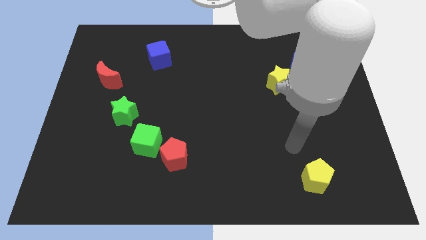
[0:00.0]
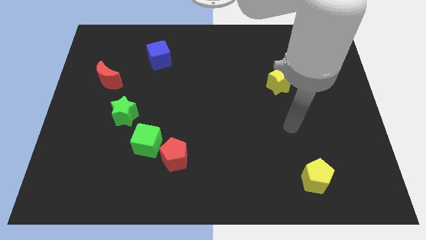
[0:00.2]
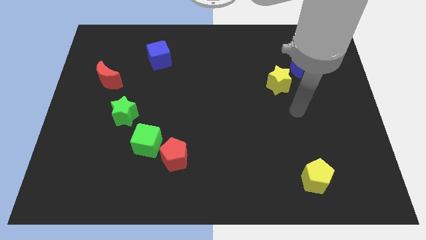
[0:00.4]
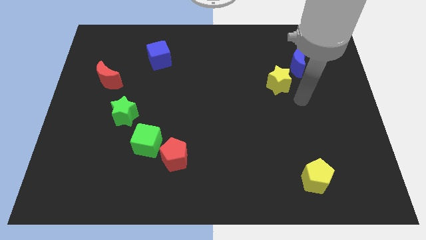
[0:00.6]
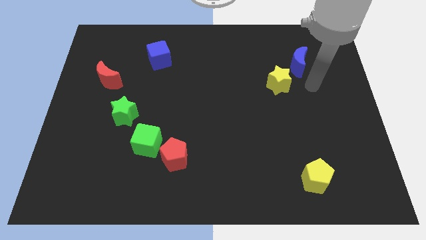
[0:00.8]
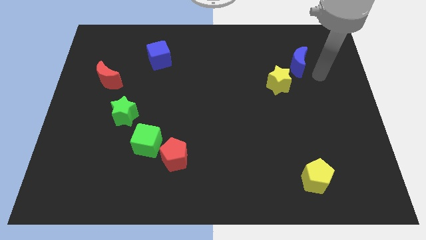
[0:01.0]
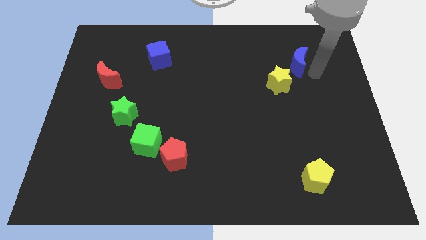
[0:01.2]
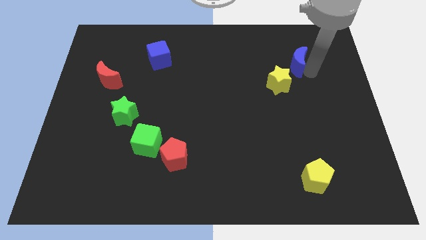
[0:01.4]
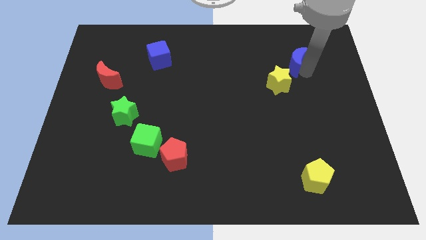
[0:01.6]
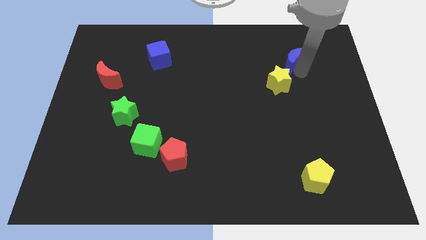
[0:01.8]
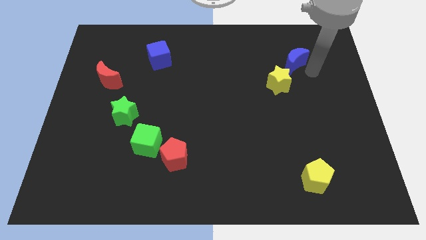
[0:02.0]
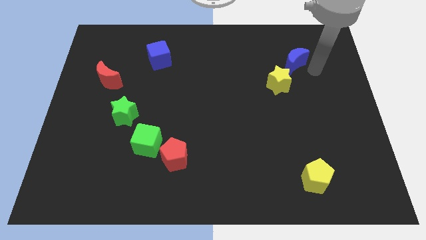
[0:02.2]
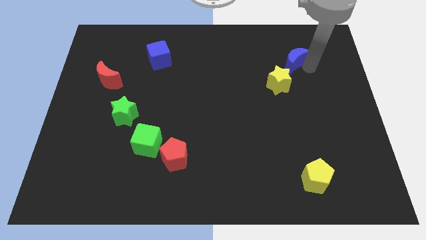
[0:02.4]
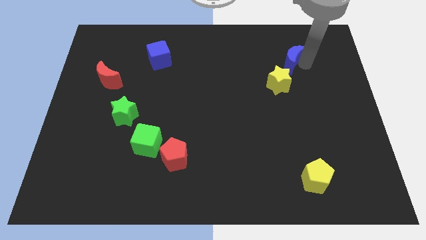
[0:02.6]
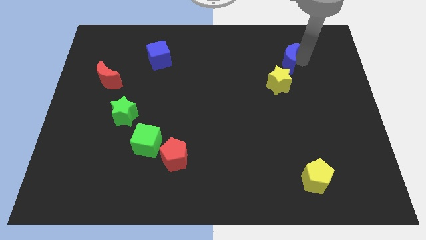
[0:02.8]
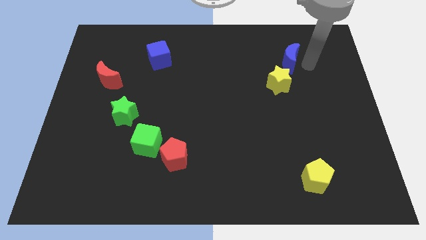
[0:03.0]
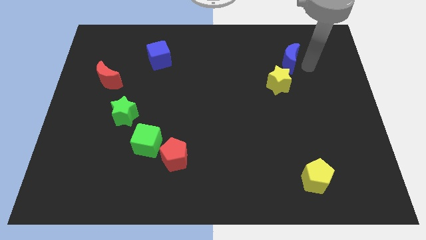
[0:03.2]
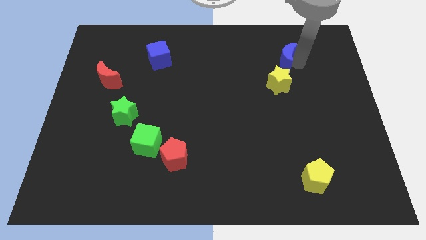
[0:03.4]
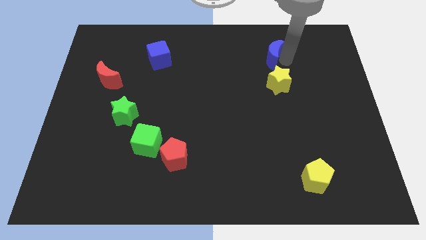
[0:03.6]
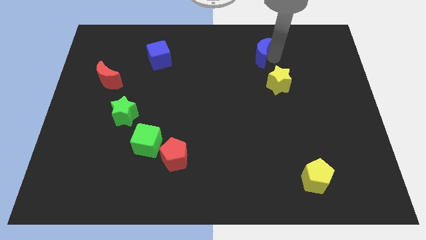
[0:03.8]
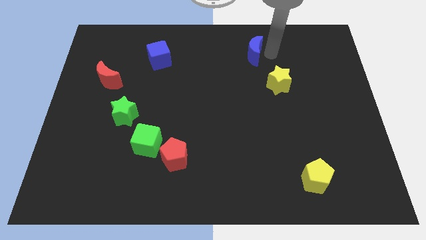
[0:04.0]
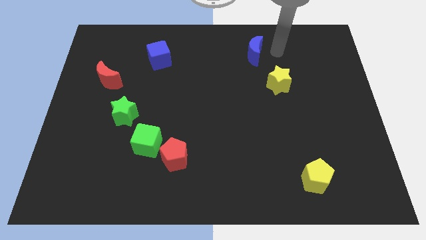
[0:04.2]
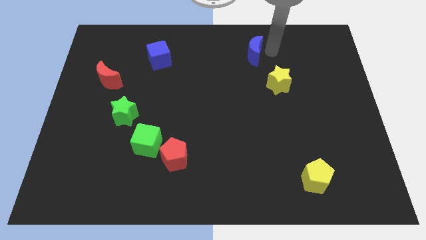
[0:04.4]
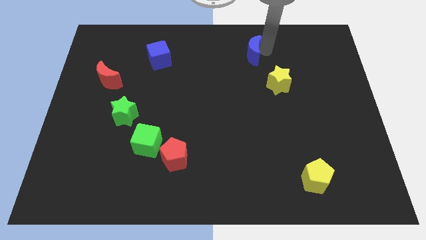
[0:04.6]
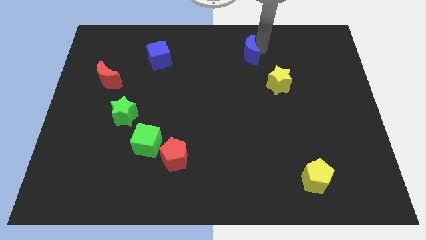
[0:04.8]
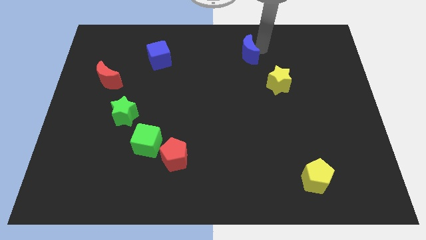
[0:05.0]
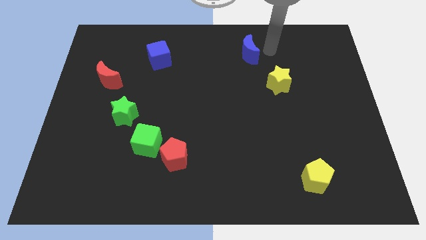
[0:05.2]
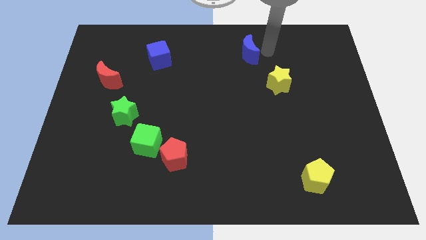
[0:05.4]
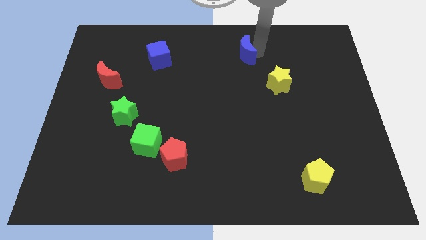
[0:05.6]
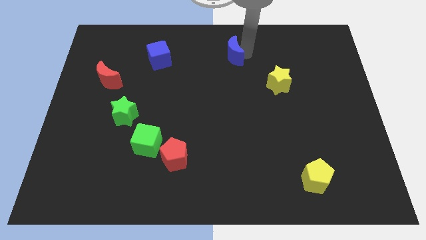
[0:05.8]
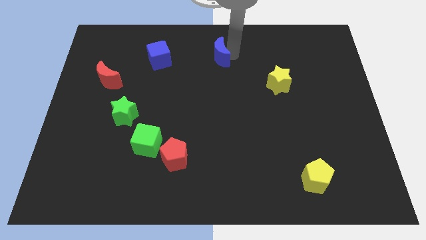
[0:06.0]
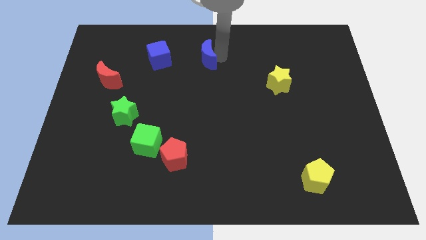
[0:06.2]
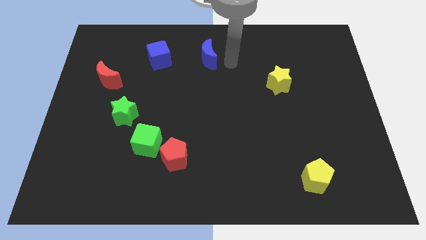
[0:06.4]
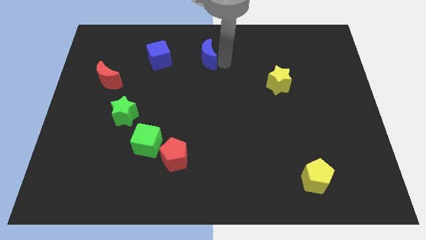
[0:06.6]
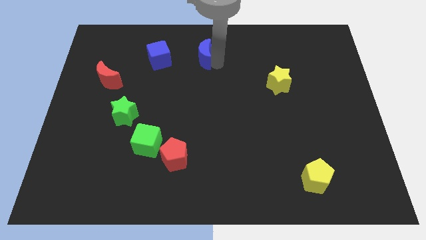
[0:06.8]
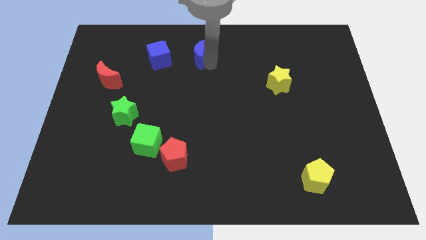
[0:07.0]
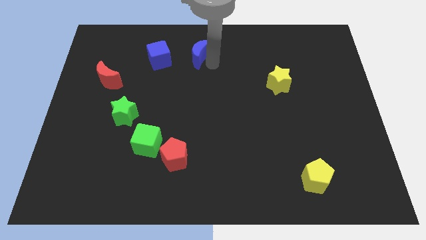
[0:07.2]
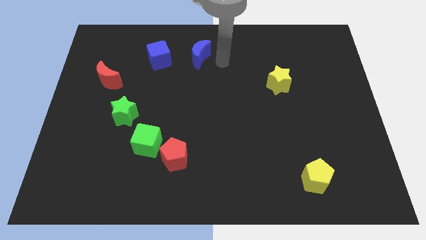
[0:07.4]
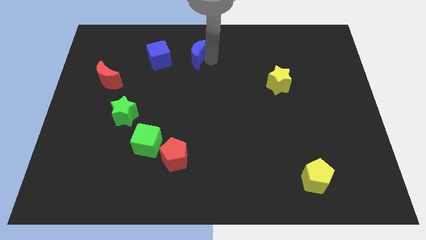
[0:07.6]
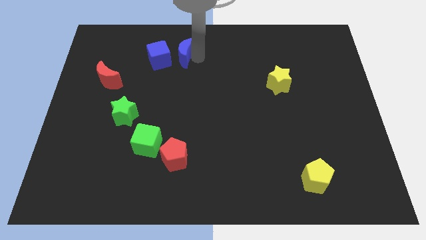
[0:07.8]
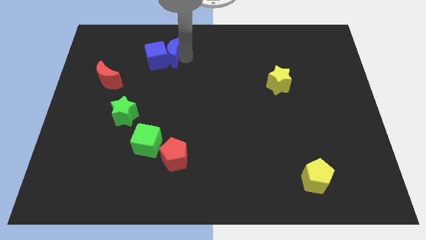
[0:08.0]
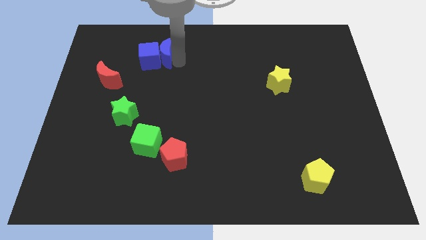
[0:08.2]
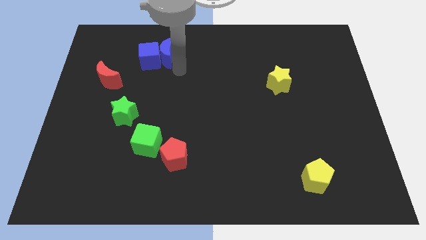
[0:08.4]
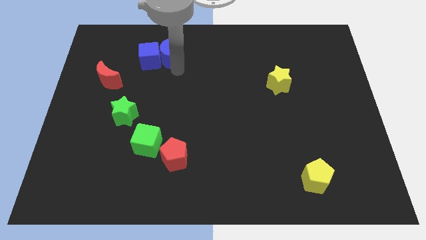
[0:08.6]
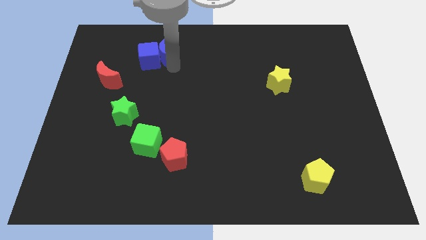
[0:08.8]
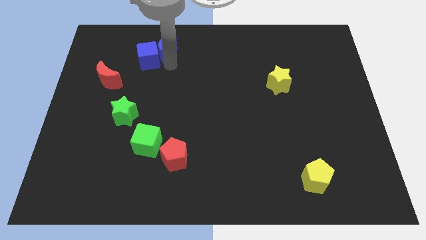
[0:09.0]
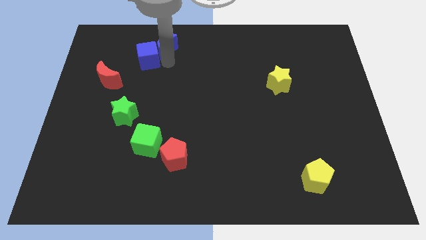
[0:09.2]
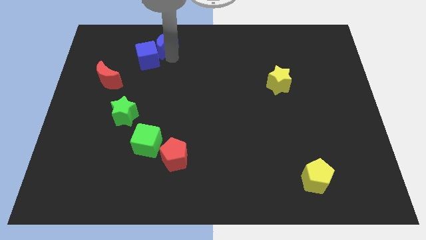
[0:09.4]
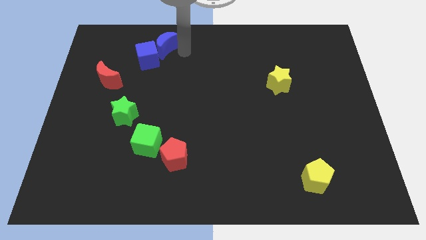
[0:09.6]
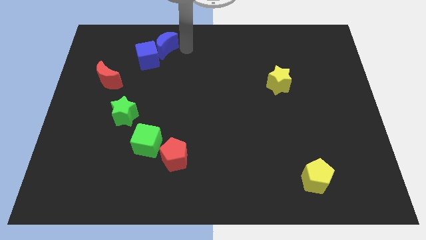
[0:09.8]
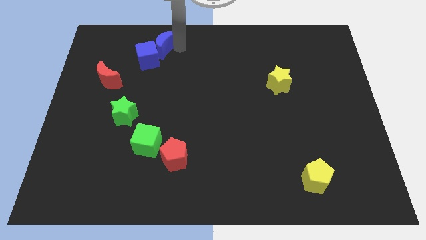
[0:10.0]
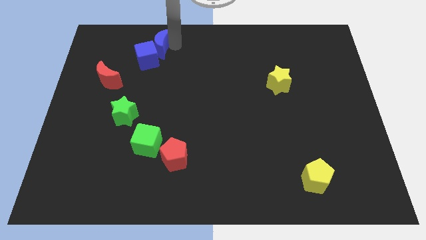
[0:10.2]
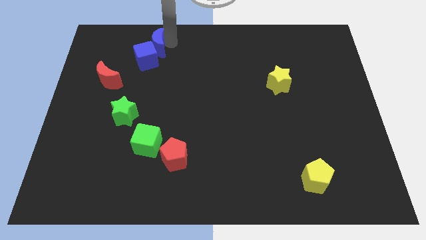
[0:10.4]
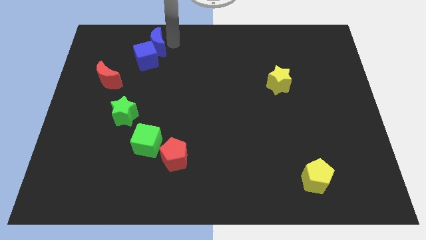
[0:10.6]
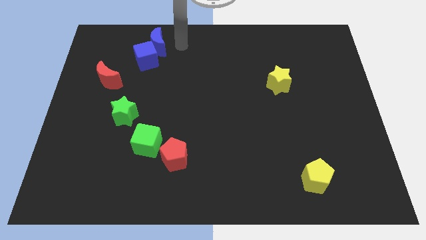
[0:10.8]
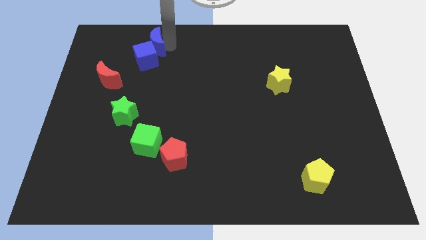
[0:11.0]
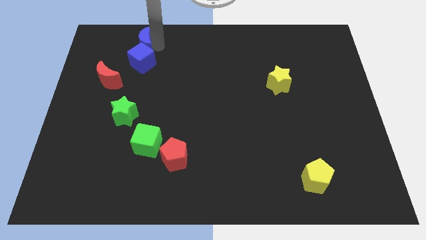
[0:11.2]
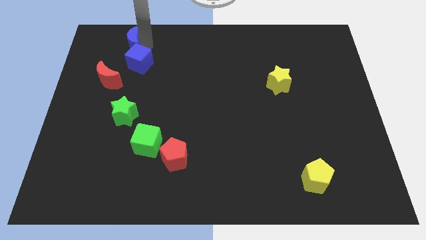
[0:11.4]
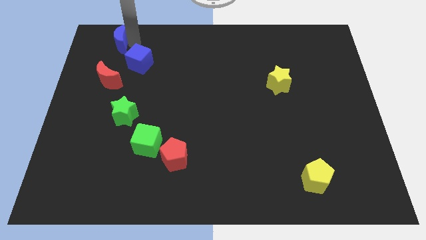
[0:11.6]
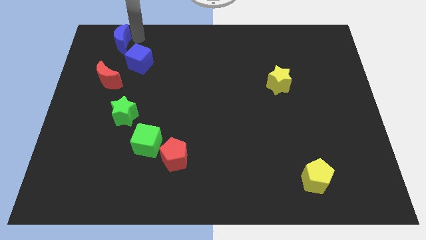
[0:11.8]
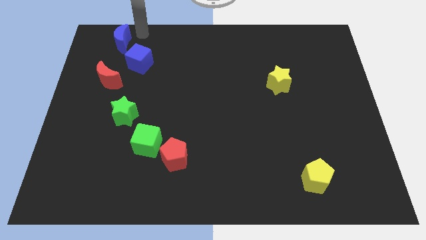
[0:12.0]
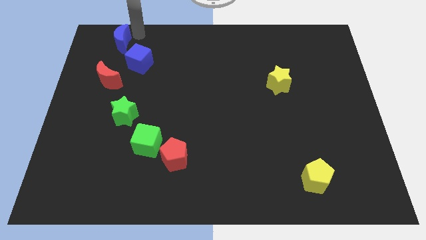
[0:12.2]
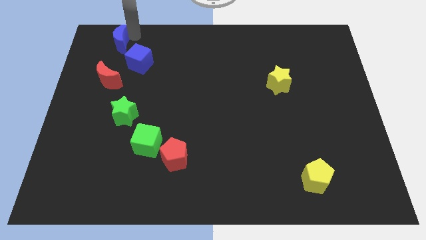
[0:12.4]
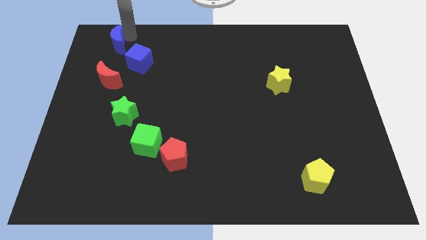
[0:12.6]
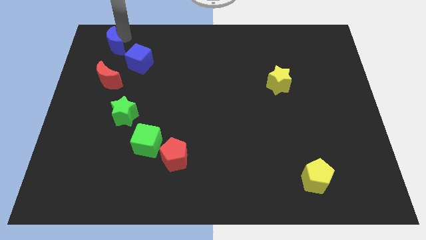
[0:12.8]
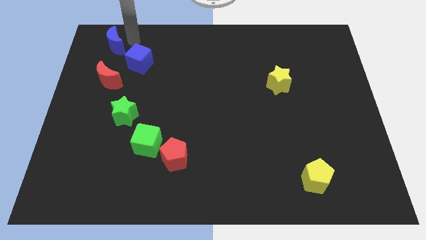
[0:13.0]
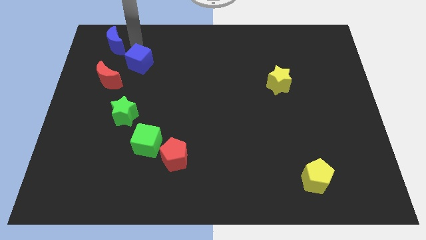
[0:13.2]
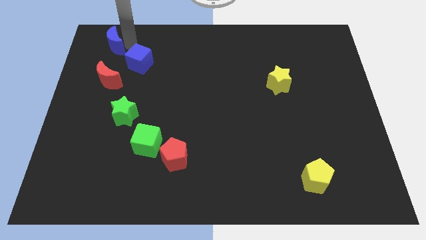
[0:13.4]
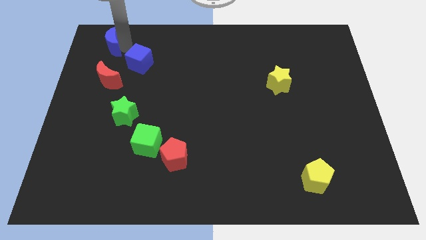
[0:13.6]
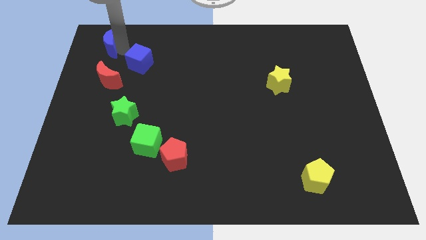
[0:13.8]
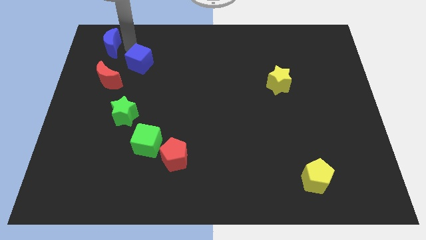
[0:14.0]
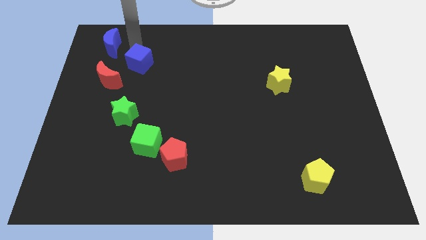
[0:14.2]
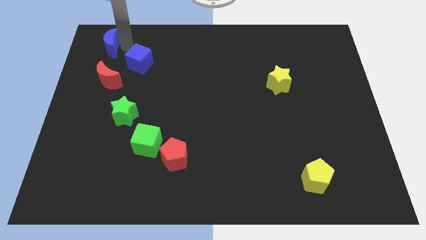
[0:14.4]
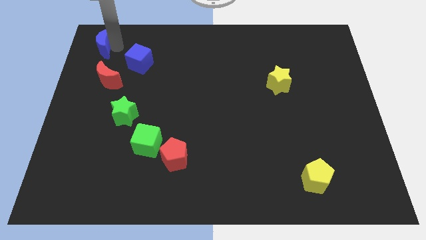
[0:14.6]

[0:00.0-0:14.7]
slide the blue moon to the upper left corner
